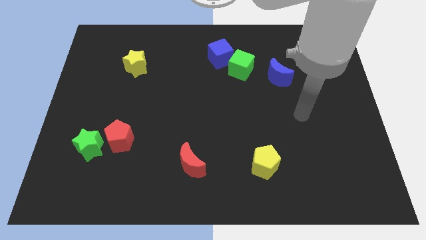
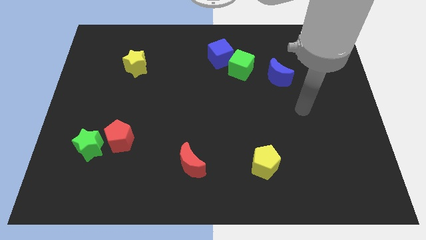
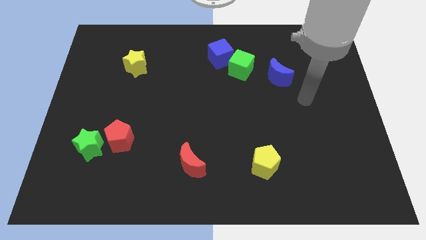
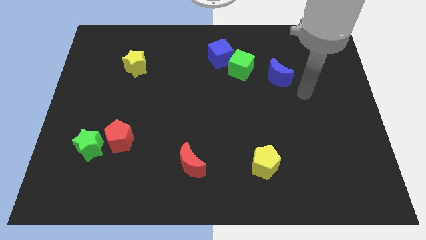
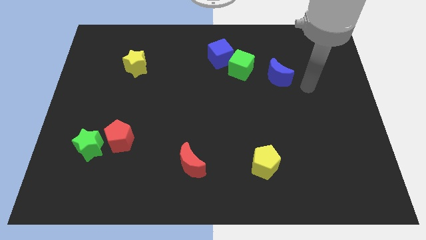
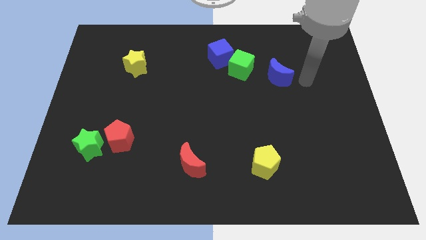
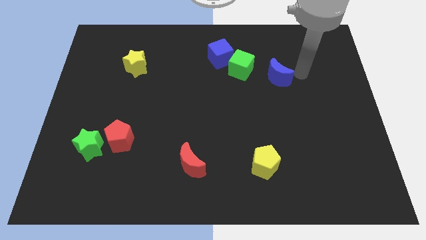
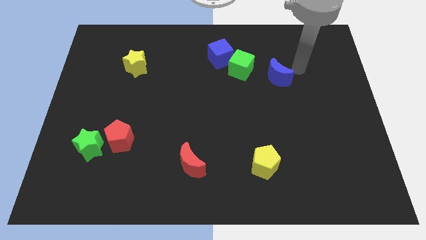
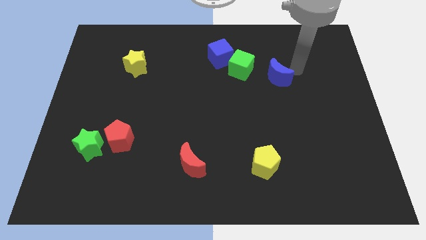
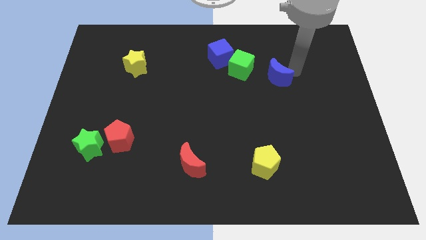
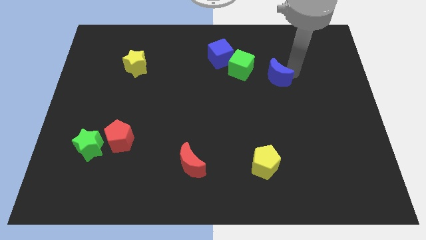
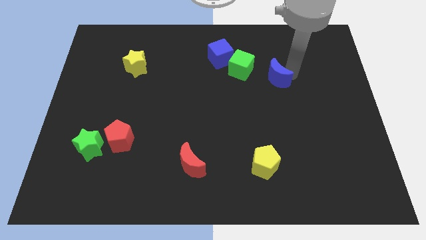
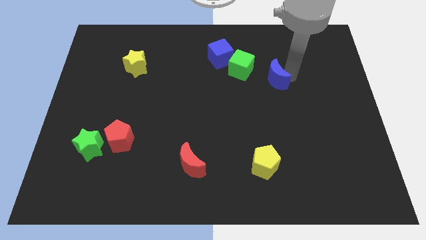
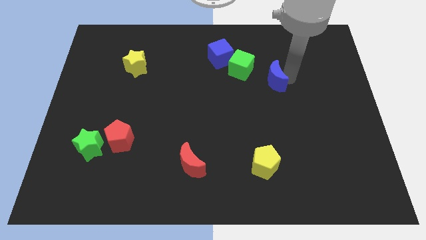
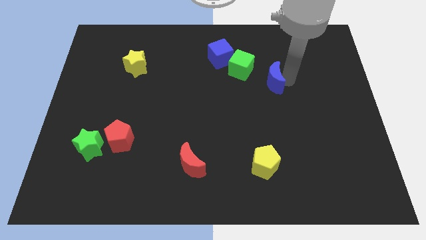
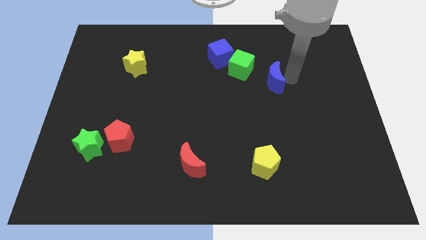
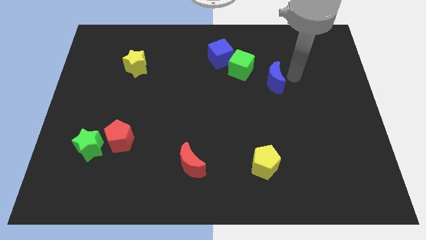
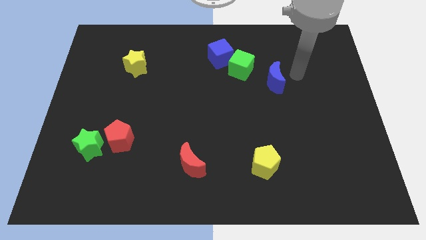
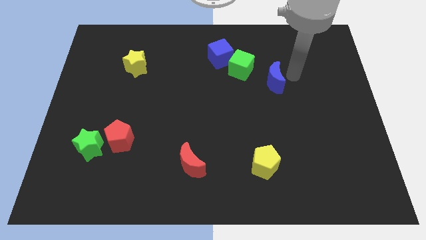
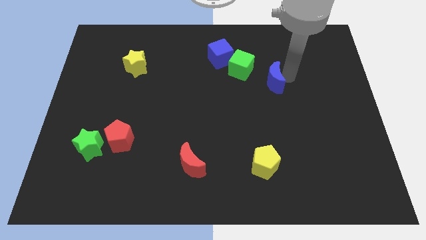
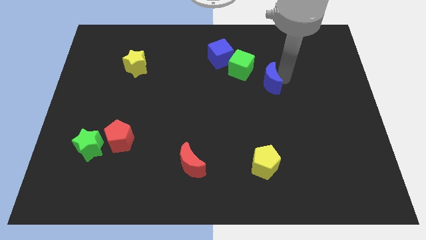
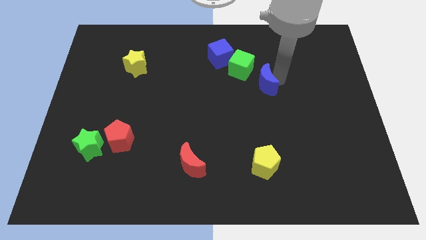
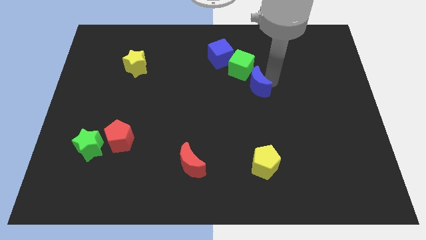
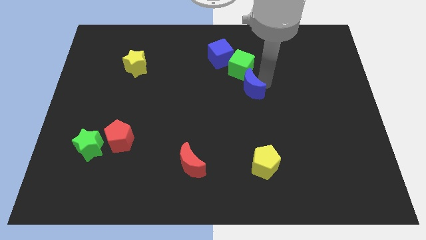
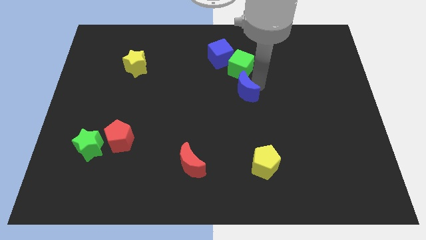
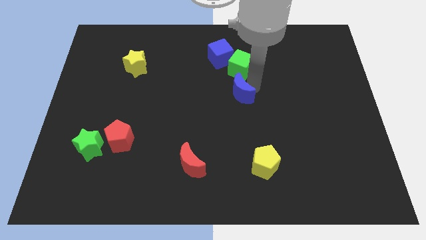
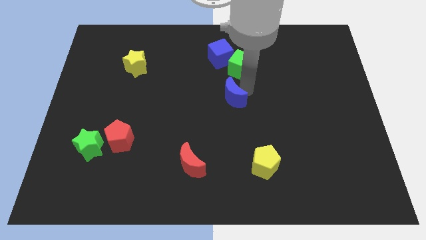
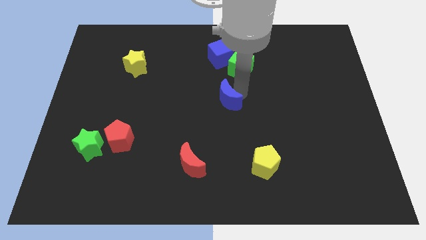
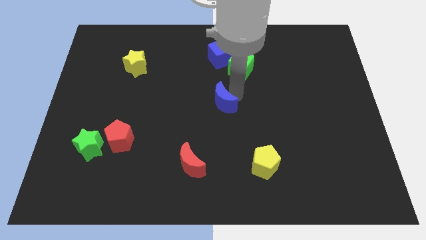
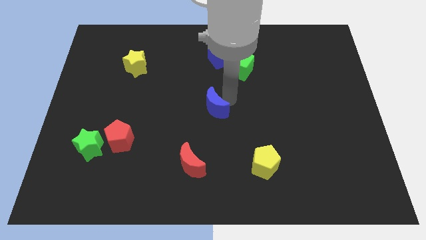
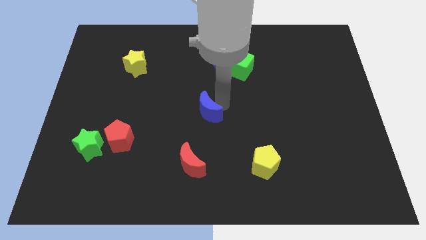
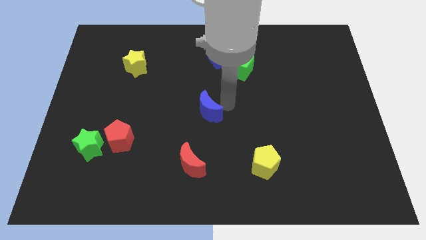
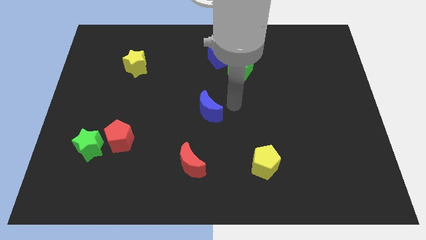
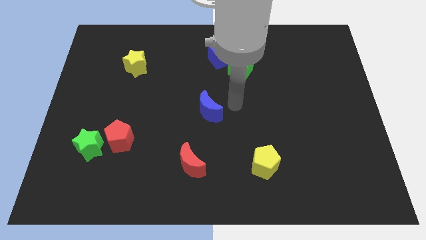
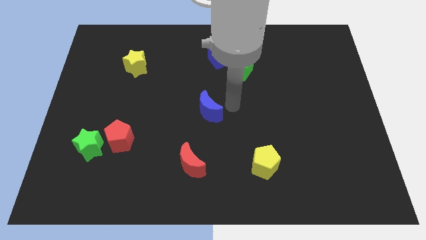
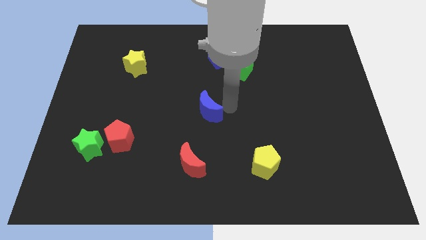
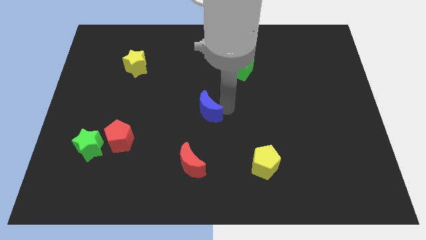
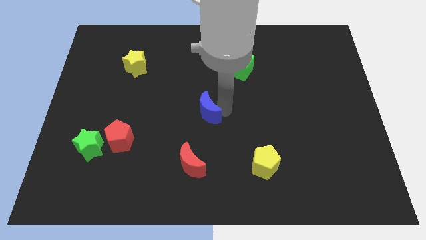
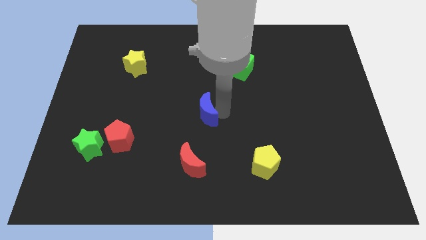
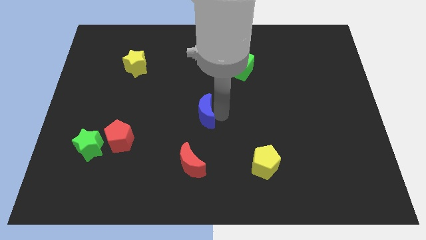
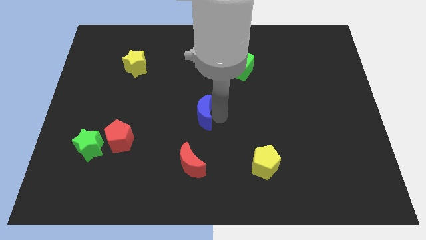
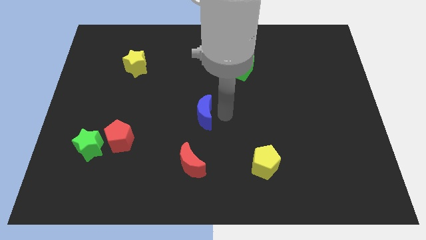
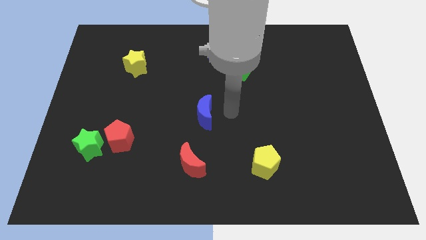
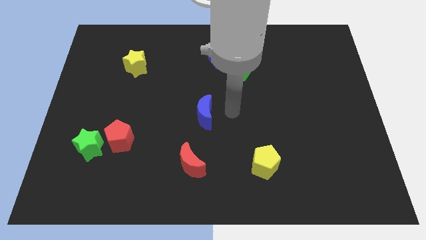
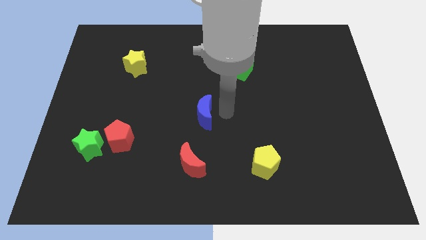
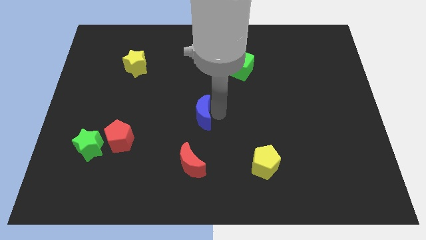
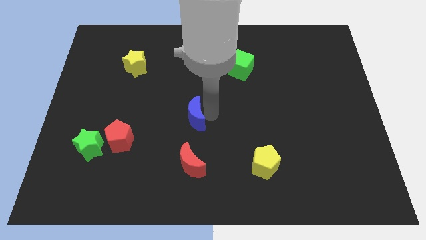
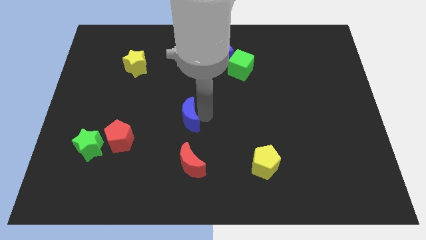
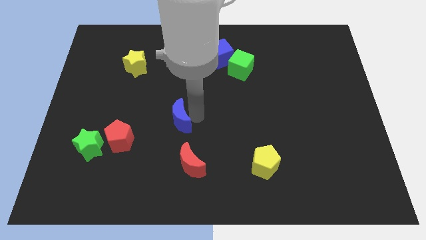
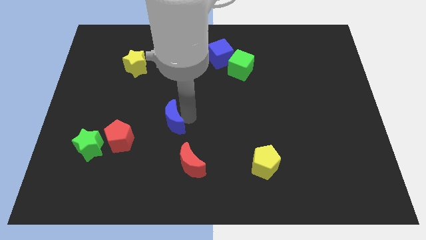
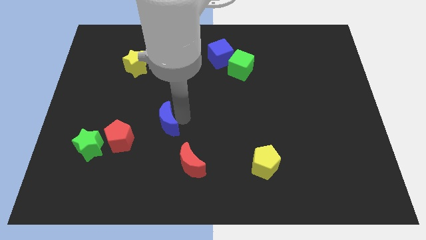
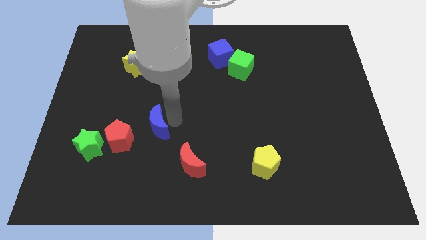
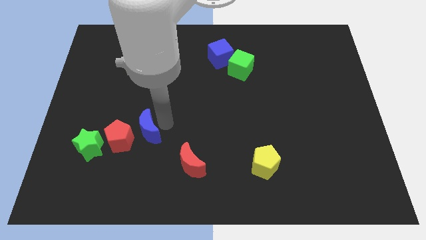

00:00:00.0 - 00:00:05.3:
move the blue moon towards the red pentagon

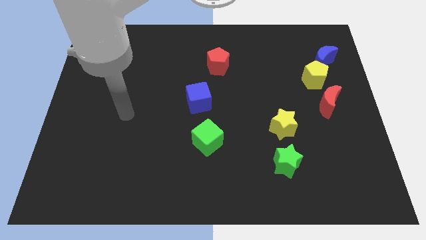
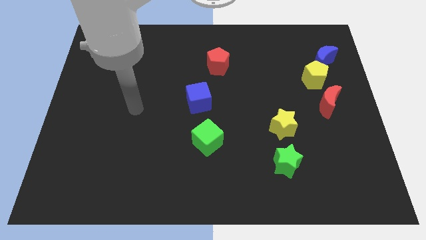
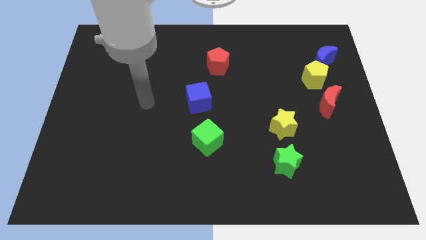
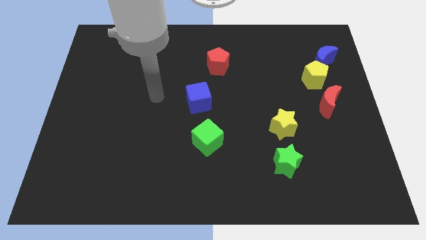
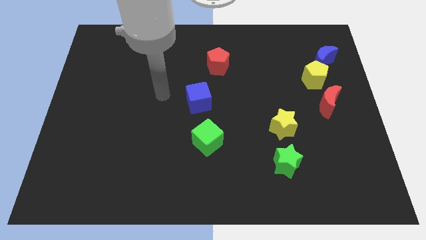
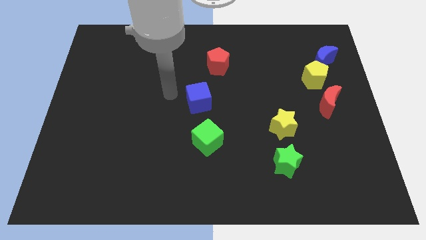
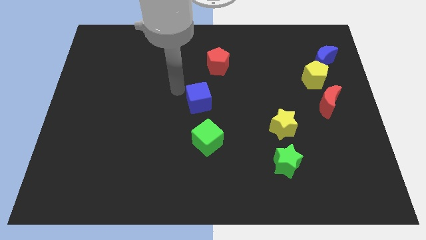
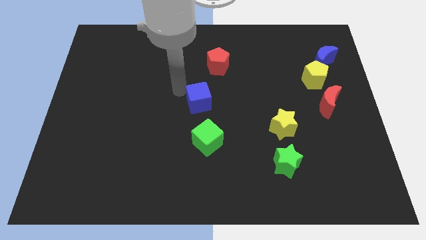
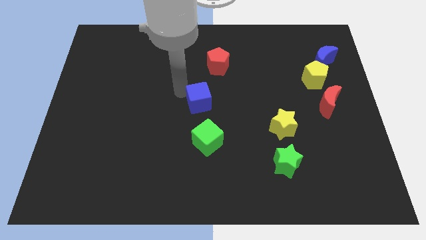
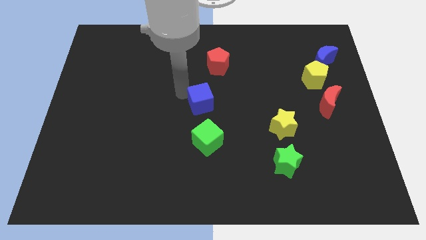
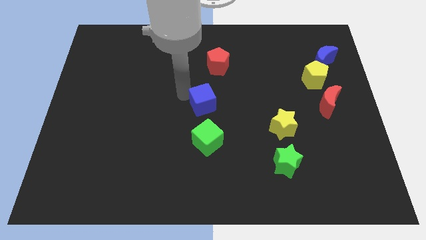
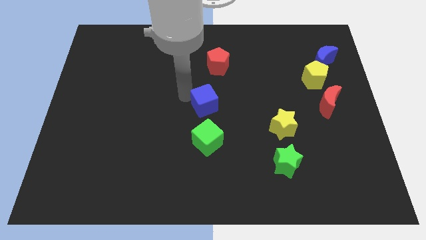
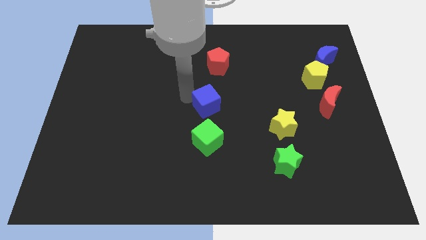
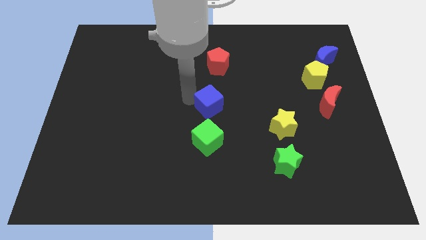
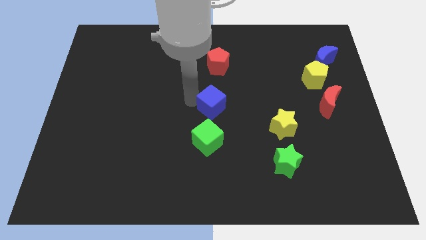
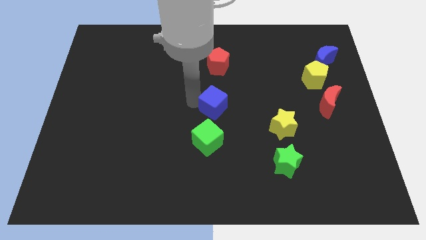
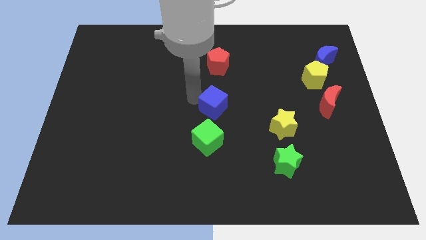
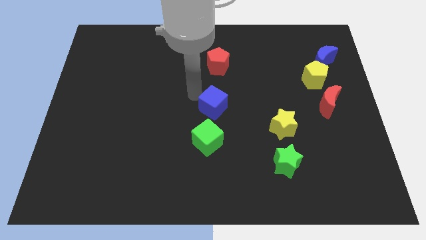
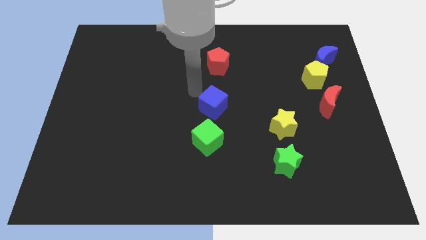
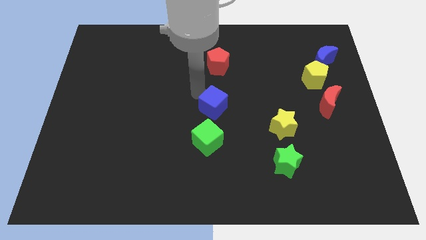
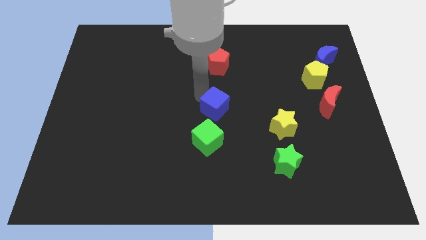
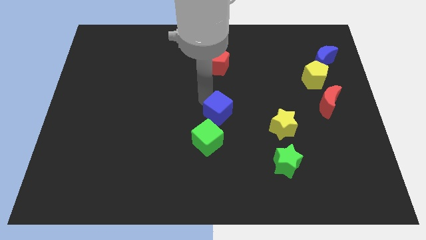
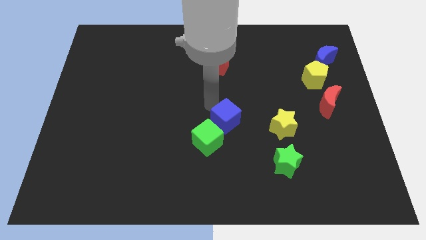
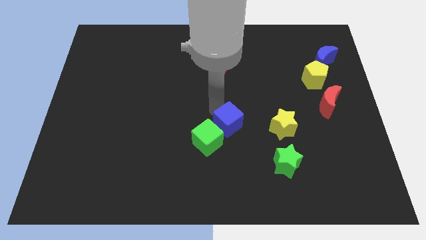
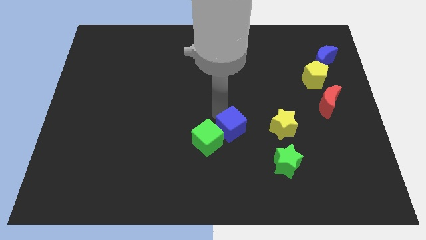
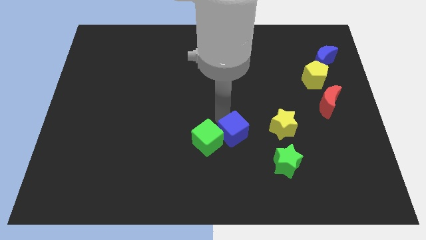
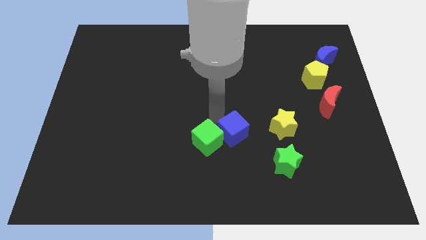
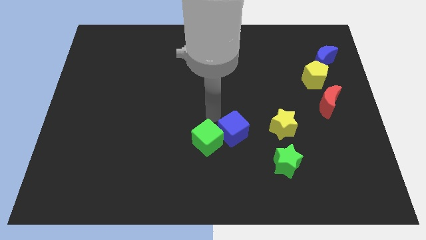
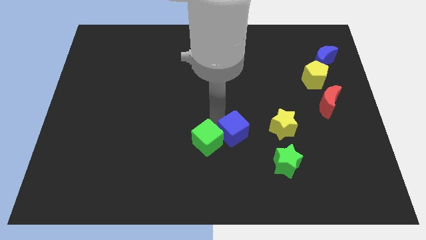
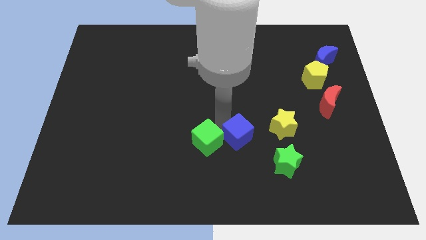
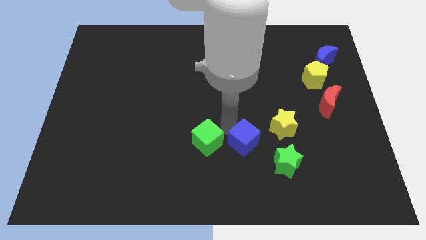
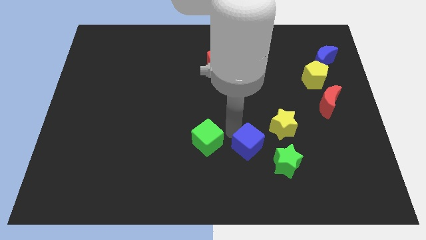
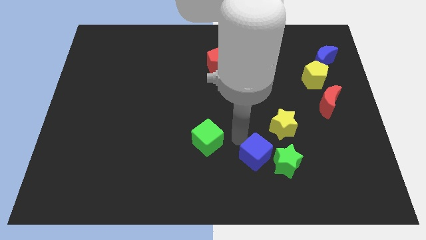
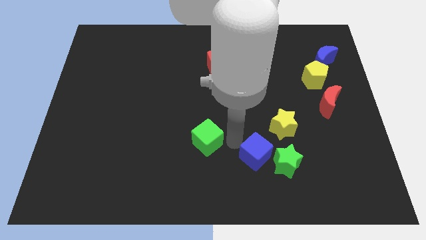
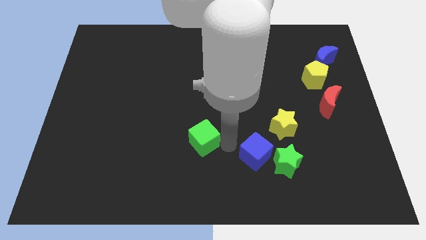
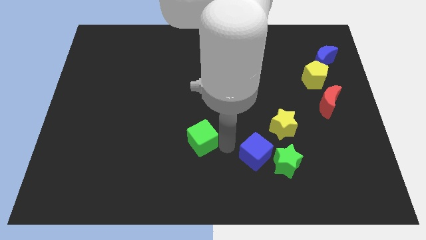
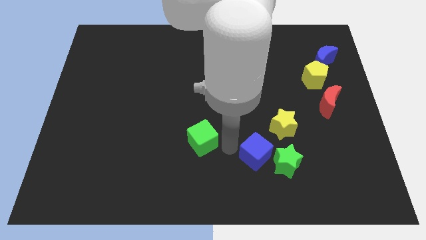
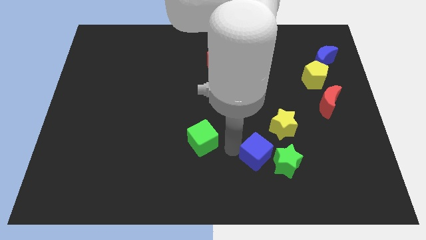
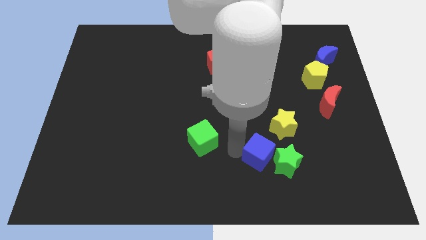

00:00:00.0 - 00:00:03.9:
slide the blue cube towards the green star
